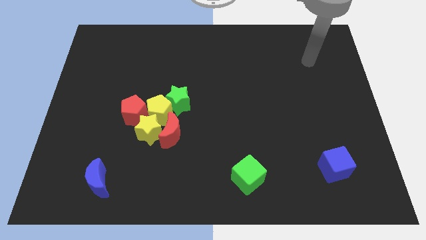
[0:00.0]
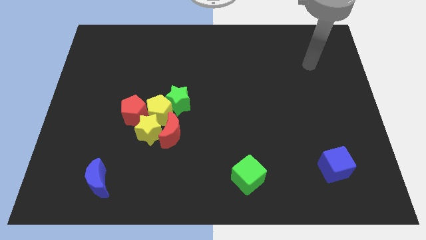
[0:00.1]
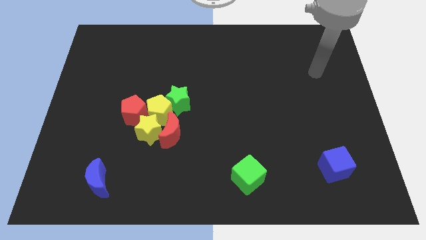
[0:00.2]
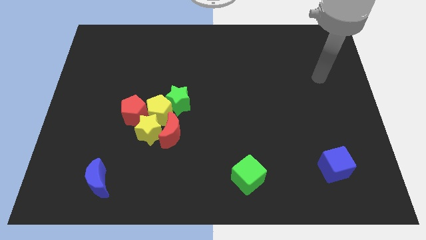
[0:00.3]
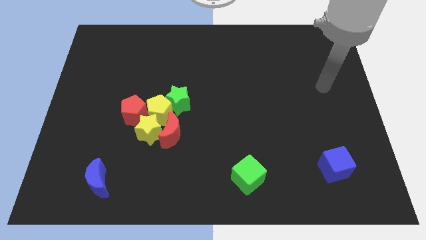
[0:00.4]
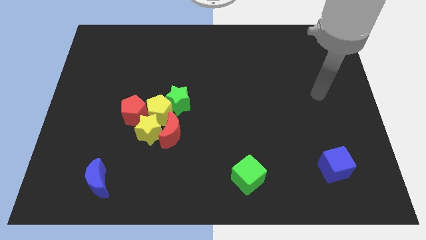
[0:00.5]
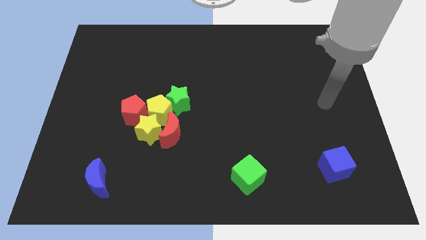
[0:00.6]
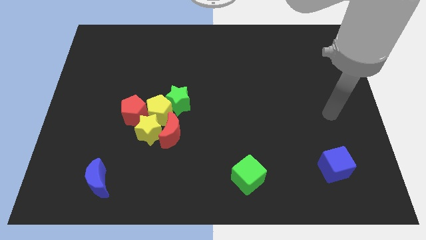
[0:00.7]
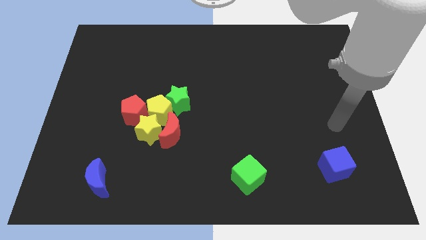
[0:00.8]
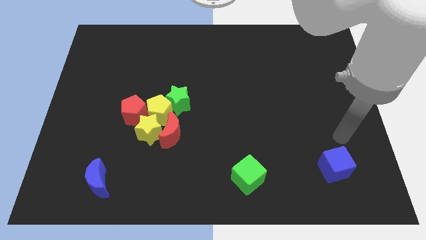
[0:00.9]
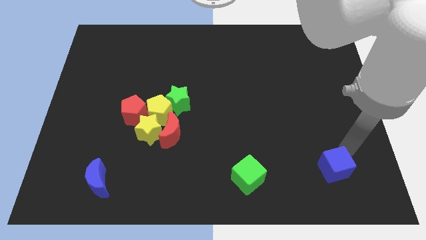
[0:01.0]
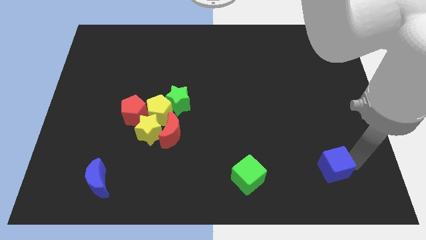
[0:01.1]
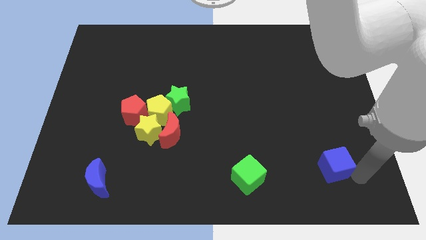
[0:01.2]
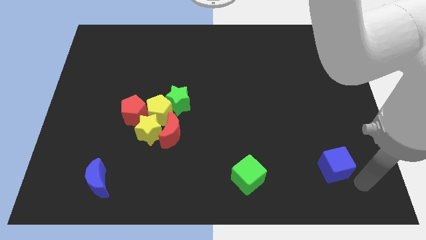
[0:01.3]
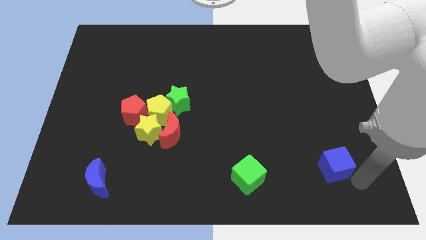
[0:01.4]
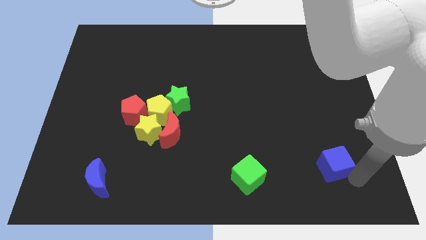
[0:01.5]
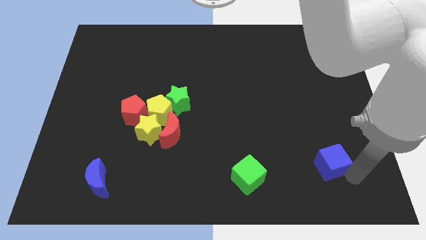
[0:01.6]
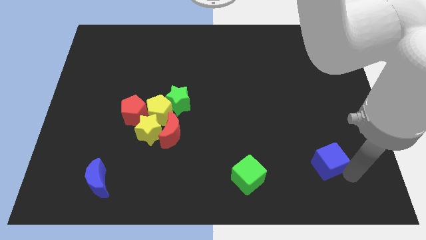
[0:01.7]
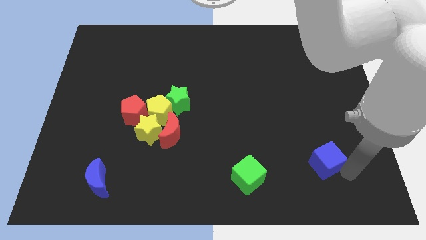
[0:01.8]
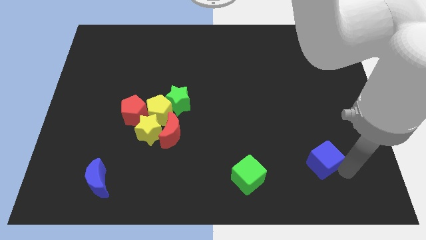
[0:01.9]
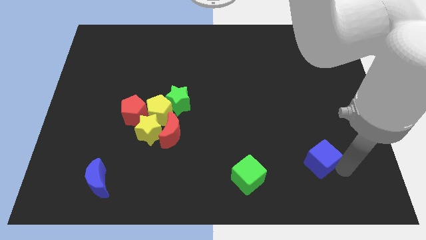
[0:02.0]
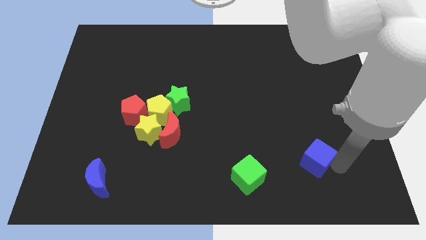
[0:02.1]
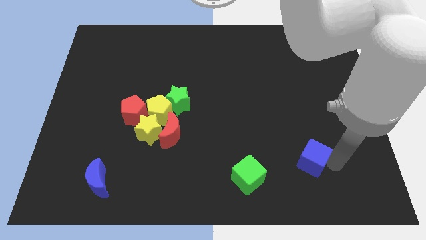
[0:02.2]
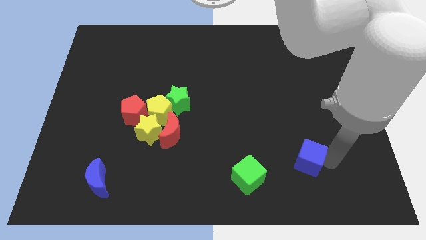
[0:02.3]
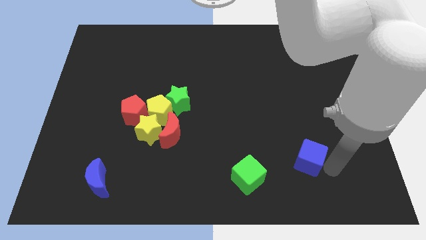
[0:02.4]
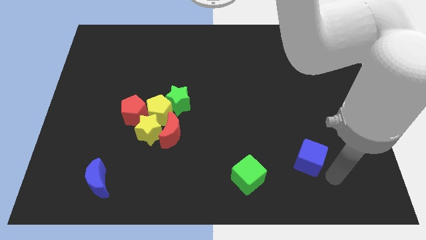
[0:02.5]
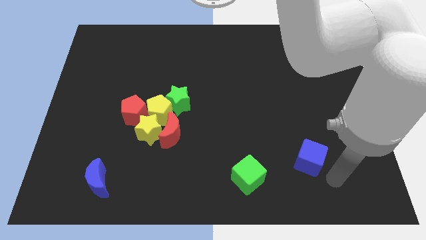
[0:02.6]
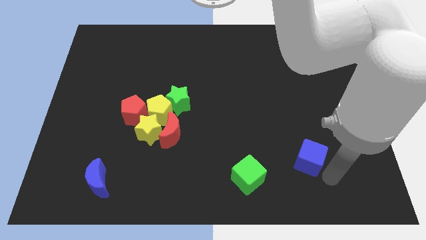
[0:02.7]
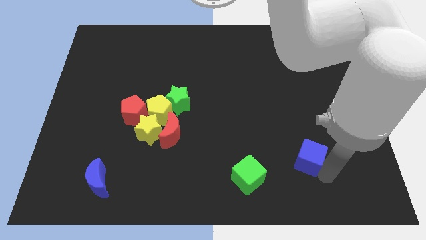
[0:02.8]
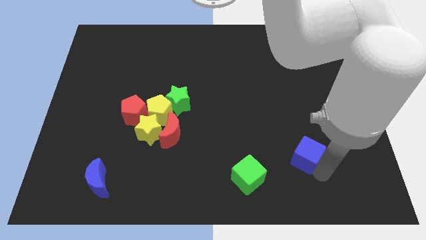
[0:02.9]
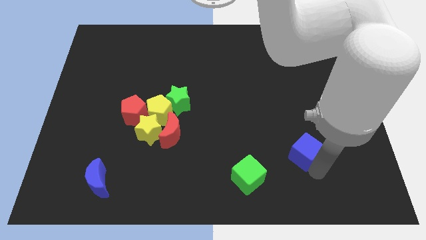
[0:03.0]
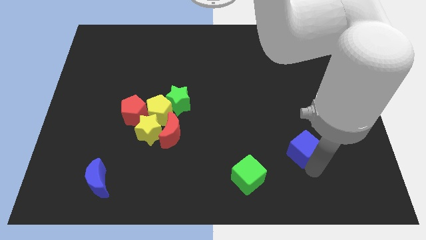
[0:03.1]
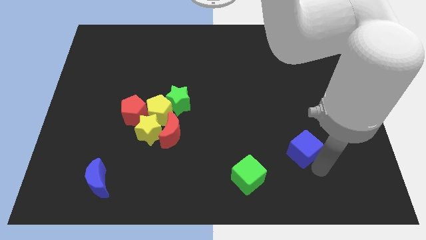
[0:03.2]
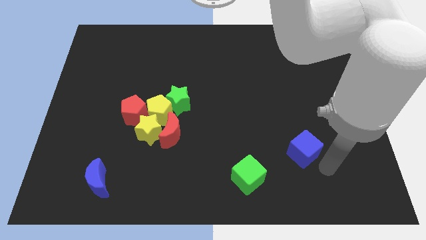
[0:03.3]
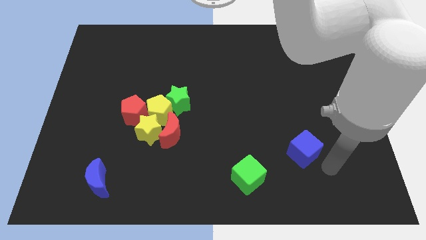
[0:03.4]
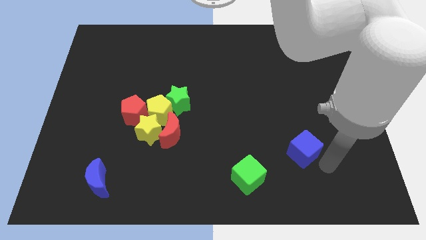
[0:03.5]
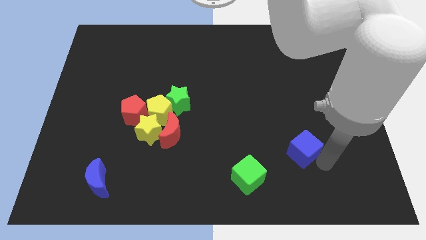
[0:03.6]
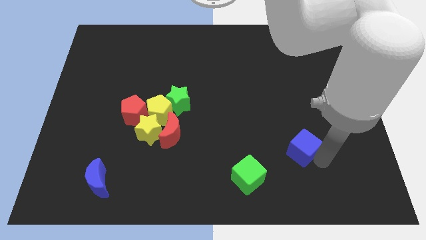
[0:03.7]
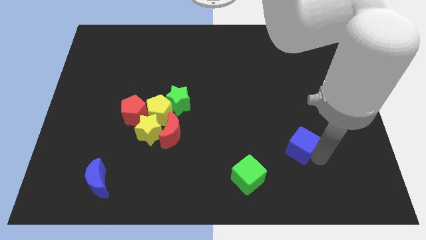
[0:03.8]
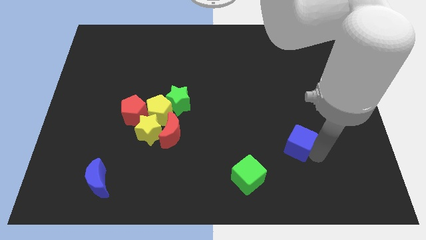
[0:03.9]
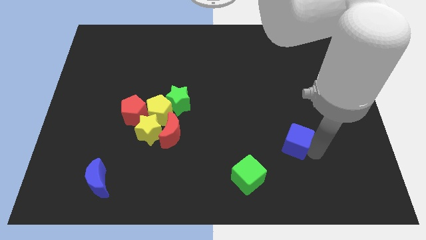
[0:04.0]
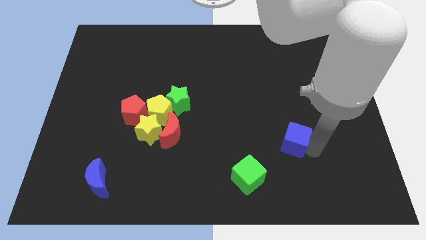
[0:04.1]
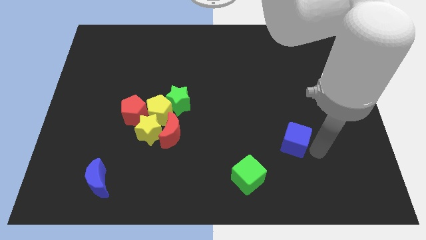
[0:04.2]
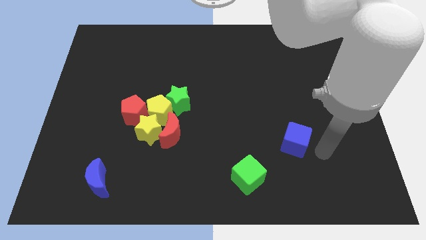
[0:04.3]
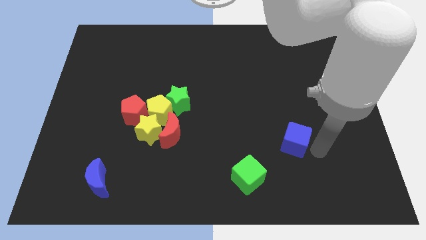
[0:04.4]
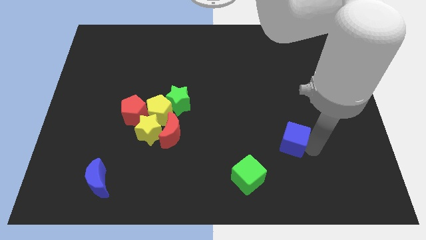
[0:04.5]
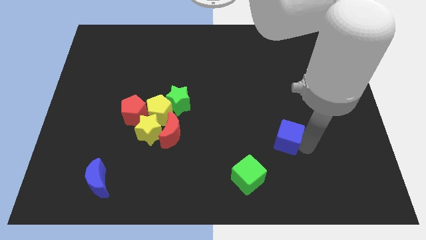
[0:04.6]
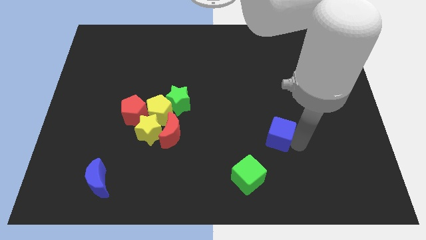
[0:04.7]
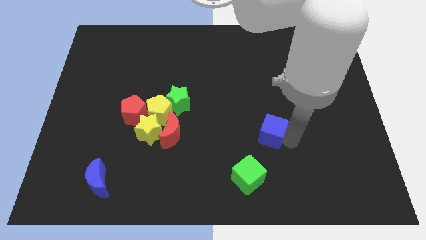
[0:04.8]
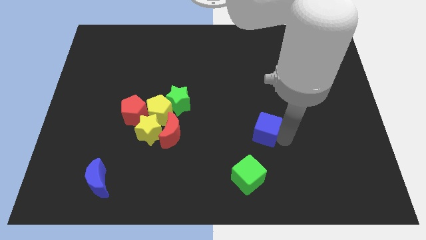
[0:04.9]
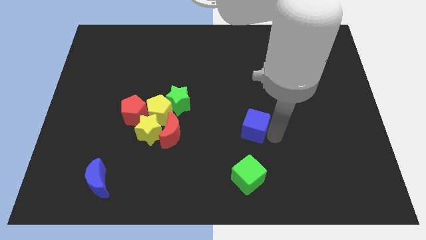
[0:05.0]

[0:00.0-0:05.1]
put the blue cube to the middle of the board

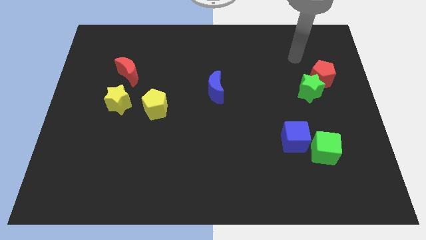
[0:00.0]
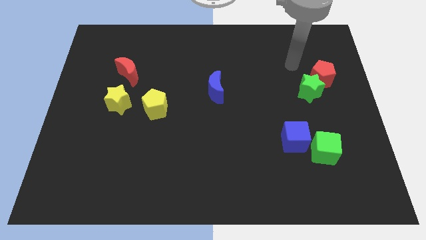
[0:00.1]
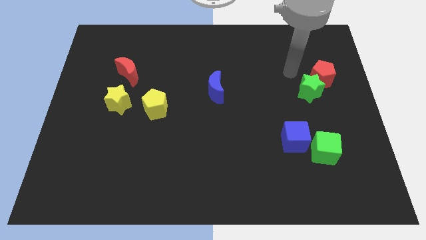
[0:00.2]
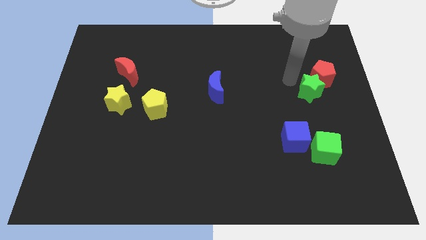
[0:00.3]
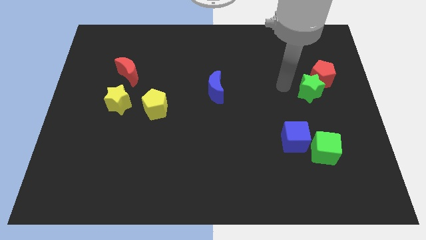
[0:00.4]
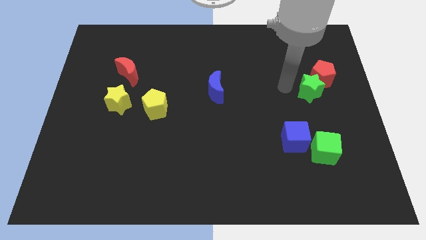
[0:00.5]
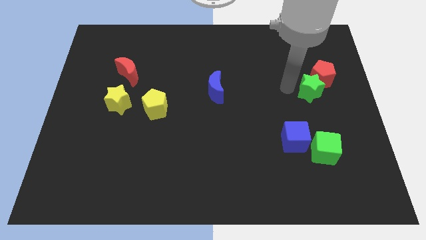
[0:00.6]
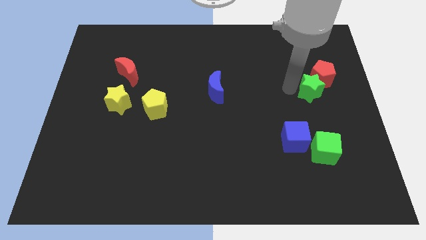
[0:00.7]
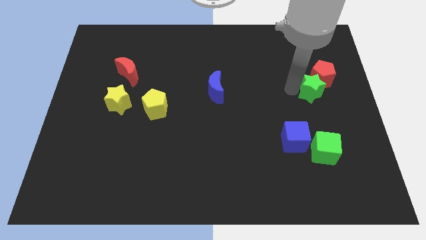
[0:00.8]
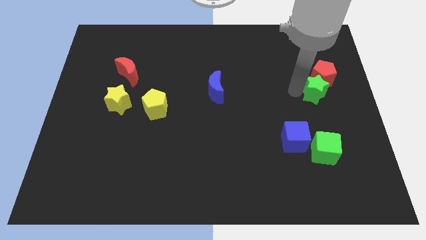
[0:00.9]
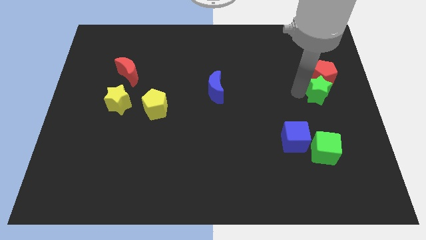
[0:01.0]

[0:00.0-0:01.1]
slide the green star to the right side of the board
